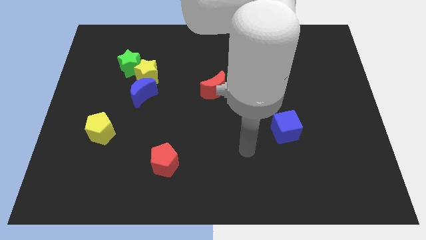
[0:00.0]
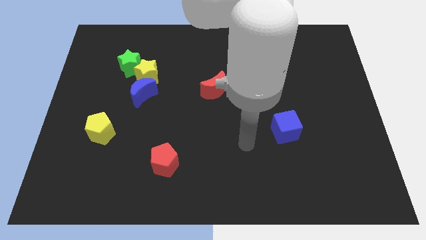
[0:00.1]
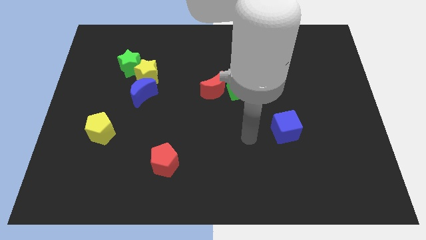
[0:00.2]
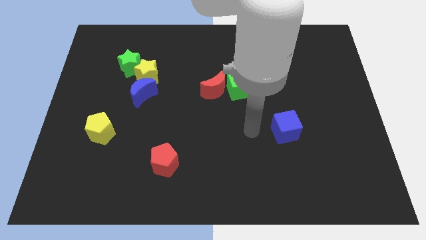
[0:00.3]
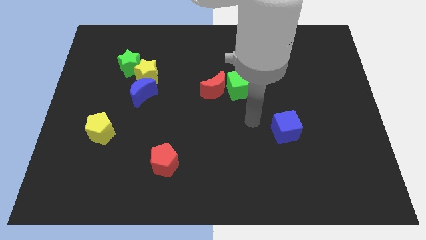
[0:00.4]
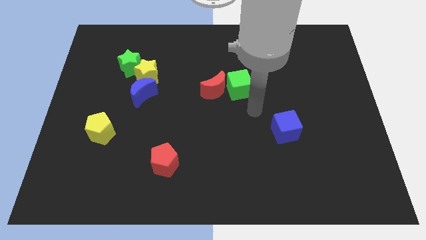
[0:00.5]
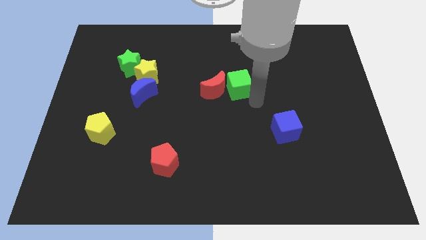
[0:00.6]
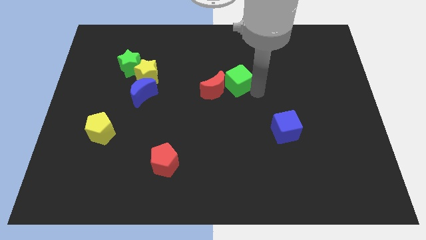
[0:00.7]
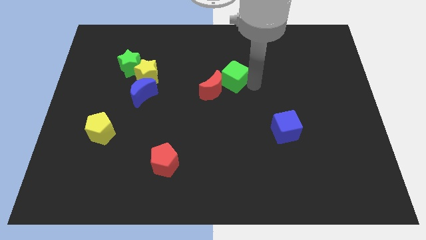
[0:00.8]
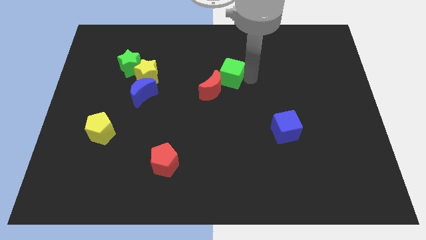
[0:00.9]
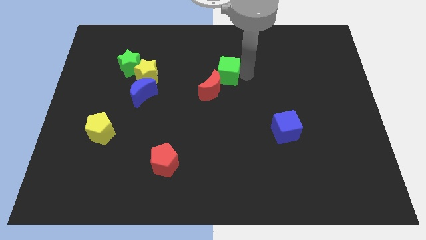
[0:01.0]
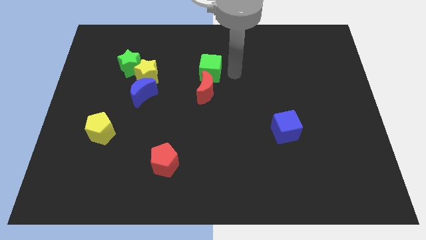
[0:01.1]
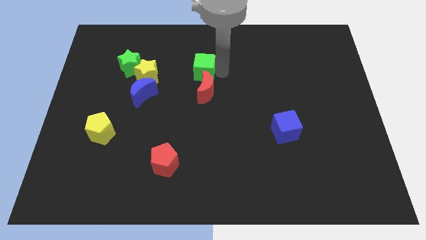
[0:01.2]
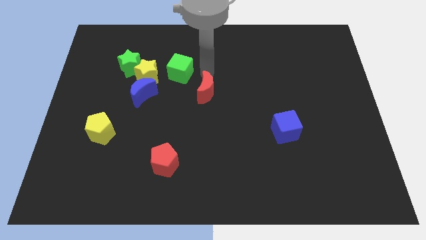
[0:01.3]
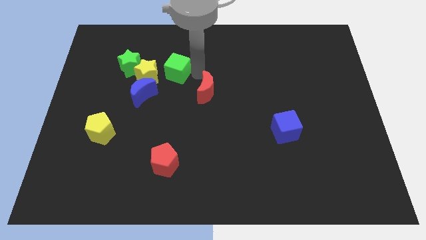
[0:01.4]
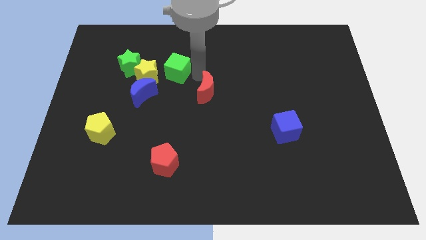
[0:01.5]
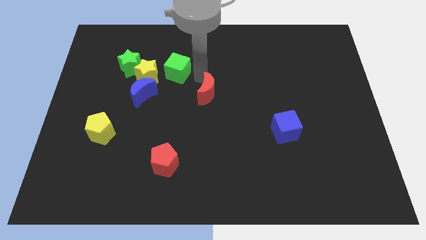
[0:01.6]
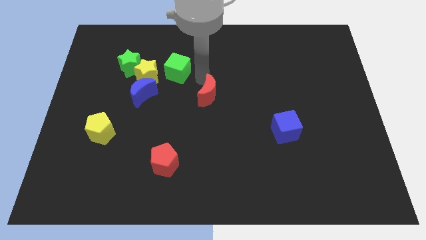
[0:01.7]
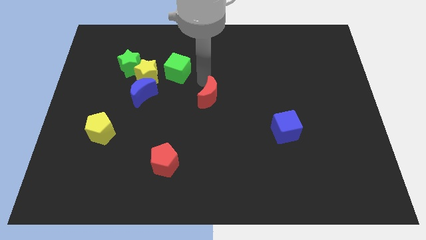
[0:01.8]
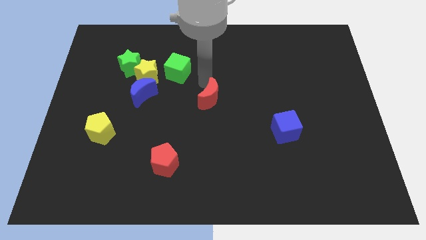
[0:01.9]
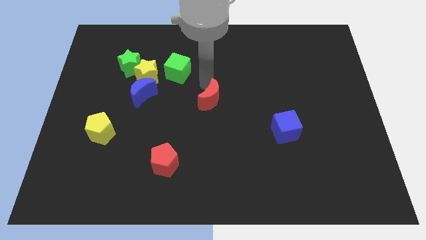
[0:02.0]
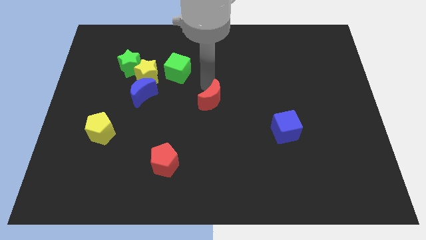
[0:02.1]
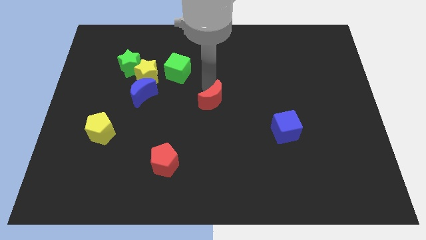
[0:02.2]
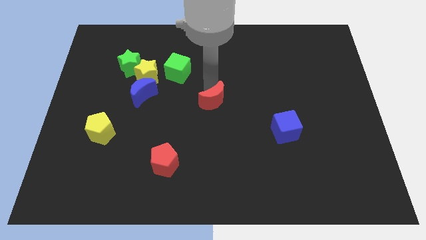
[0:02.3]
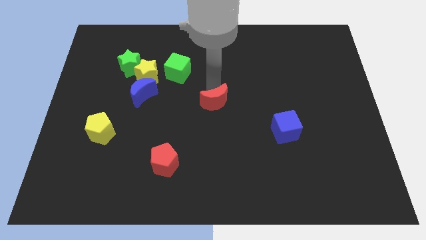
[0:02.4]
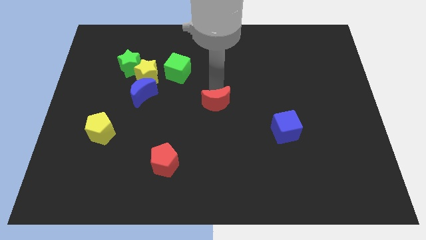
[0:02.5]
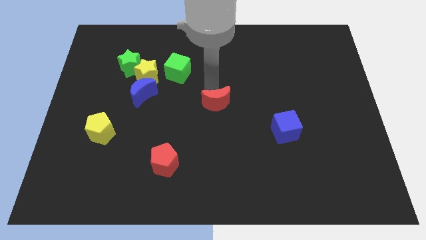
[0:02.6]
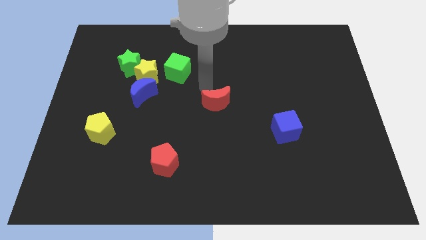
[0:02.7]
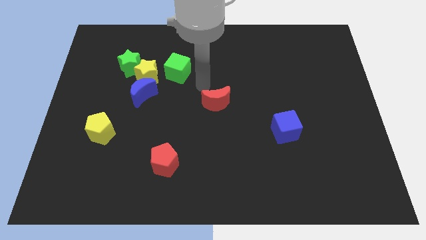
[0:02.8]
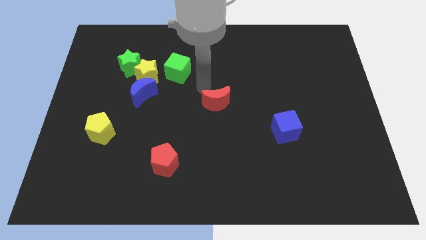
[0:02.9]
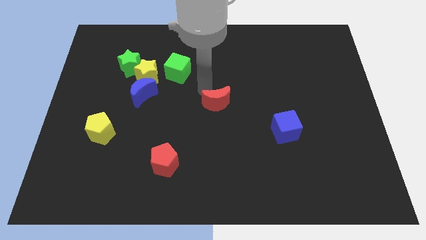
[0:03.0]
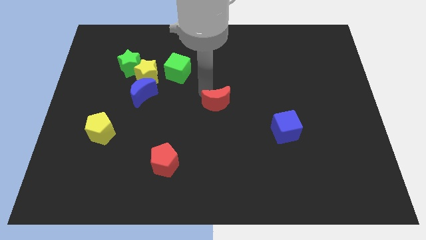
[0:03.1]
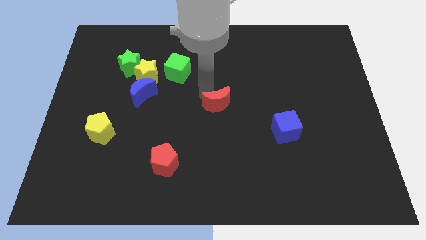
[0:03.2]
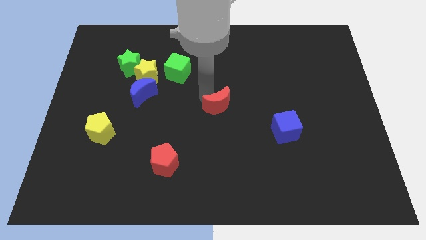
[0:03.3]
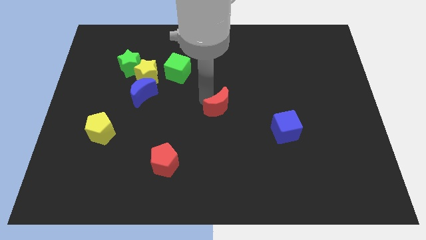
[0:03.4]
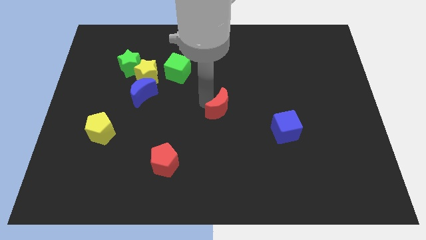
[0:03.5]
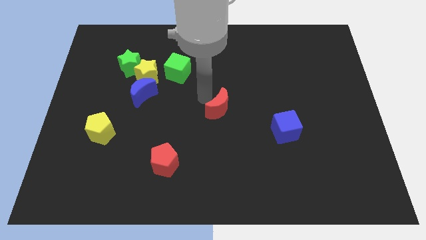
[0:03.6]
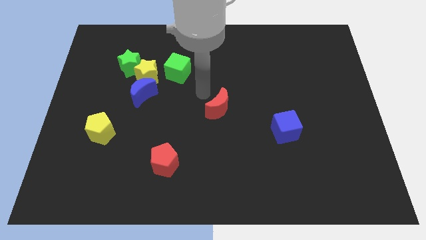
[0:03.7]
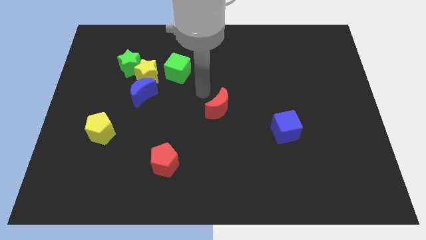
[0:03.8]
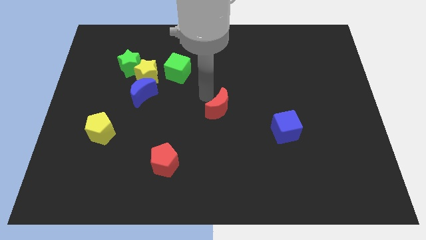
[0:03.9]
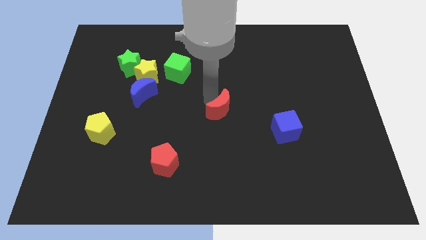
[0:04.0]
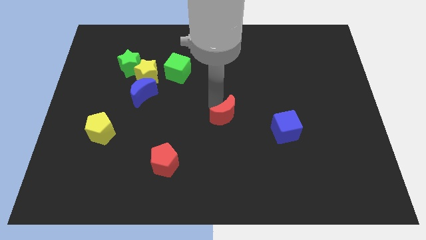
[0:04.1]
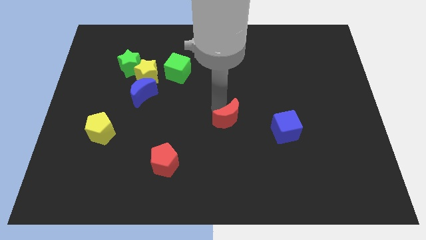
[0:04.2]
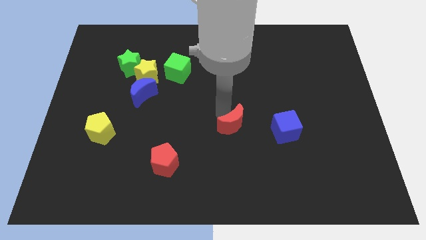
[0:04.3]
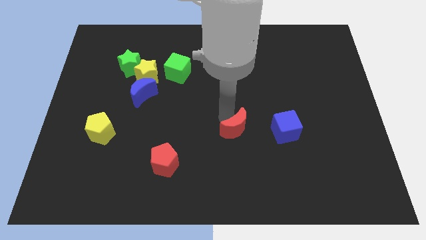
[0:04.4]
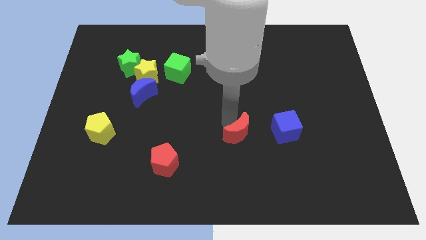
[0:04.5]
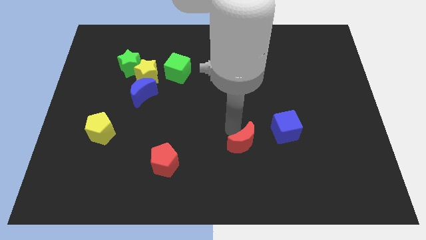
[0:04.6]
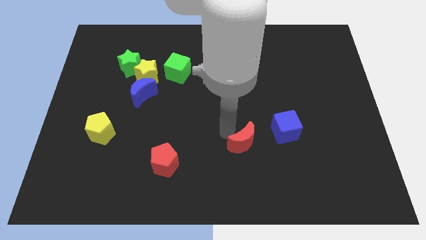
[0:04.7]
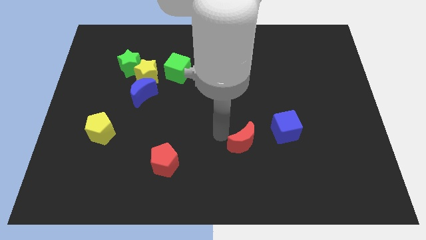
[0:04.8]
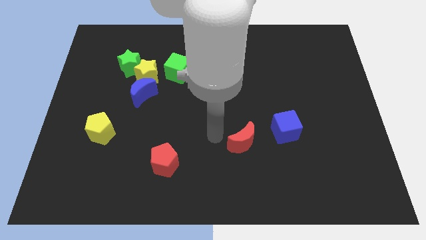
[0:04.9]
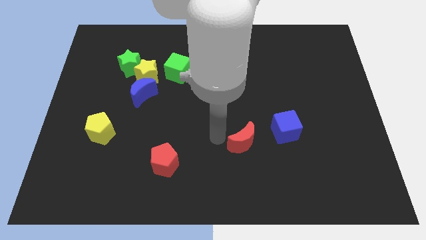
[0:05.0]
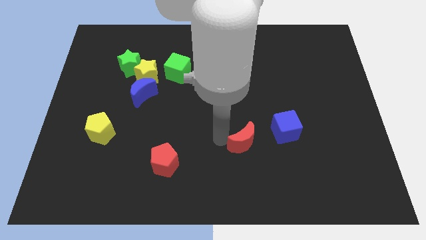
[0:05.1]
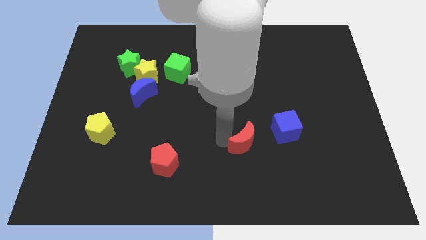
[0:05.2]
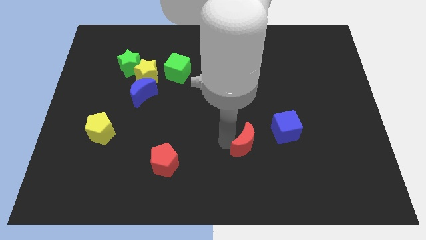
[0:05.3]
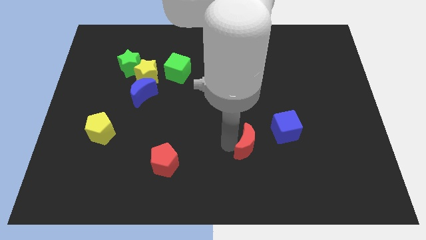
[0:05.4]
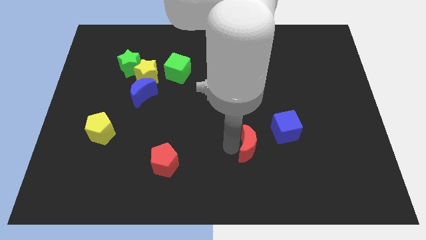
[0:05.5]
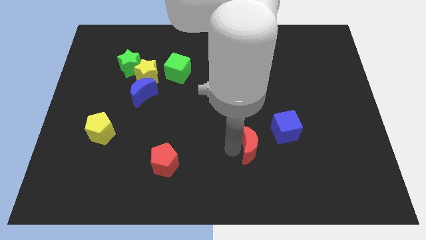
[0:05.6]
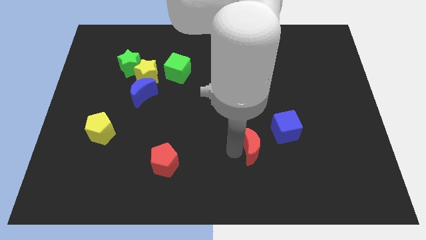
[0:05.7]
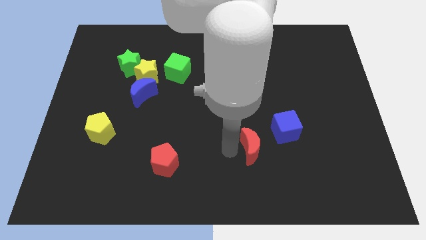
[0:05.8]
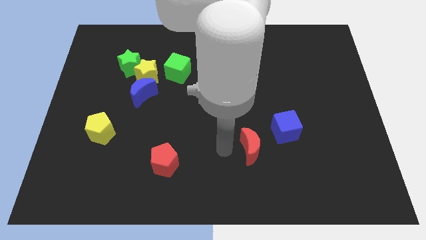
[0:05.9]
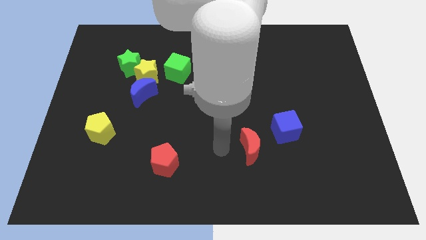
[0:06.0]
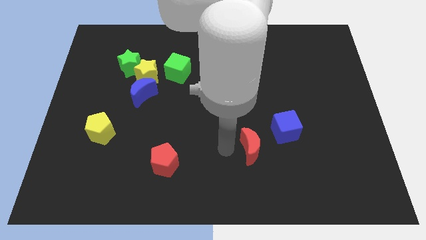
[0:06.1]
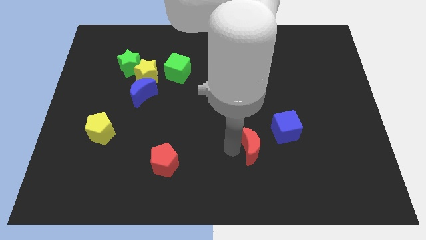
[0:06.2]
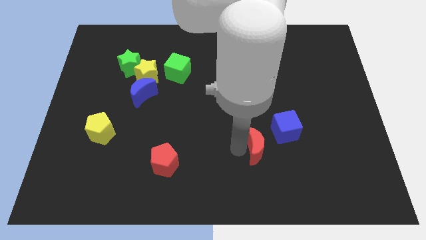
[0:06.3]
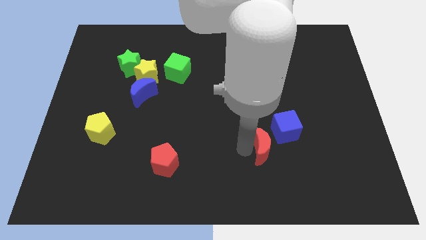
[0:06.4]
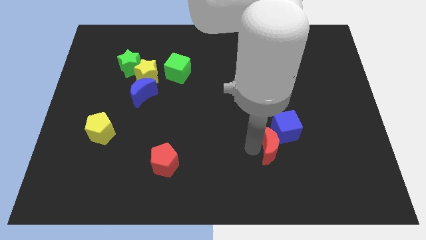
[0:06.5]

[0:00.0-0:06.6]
slide the red moon downwards and to the right

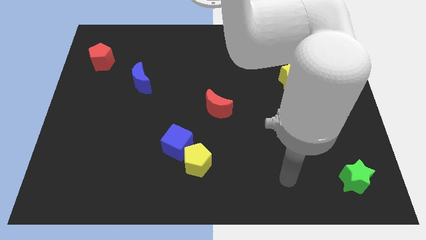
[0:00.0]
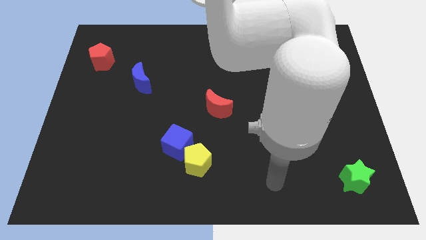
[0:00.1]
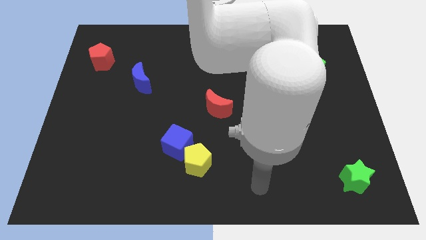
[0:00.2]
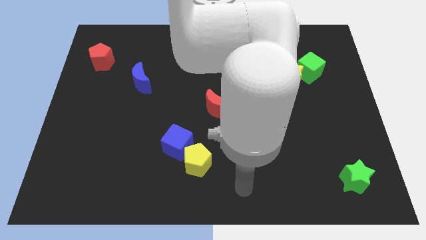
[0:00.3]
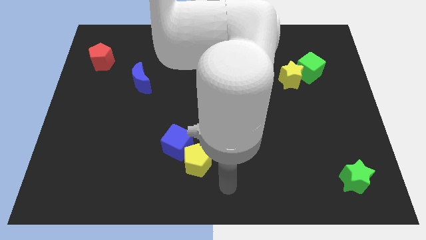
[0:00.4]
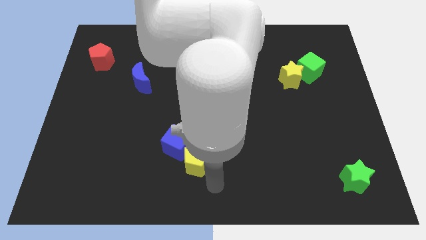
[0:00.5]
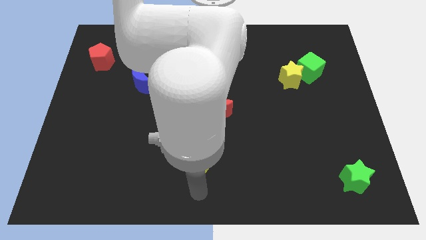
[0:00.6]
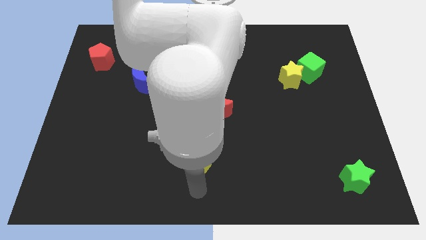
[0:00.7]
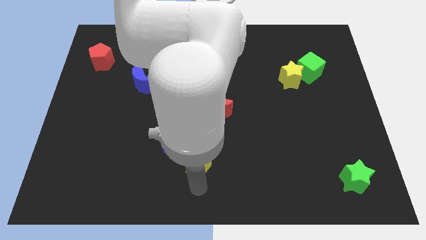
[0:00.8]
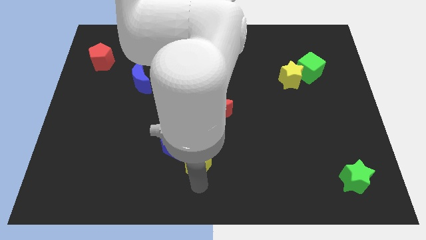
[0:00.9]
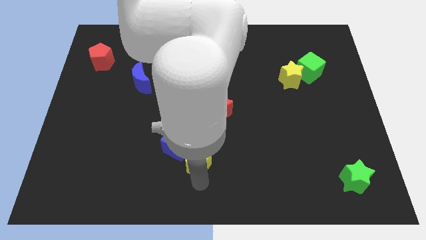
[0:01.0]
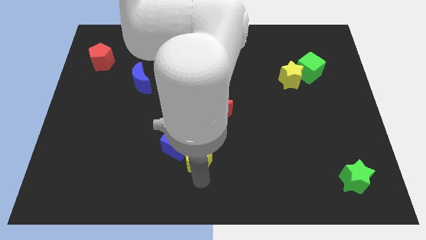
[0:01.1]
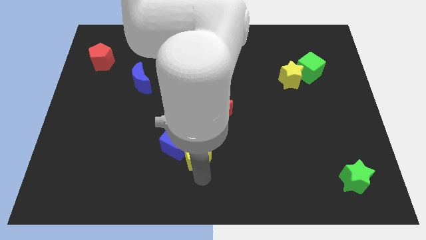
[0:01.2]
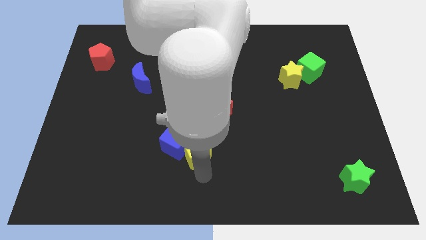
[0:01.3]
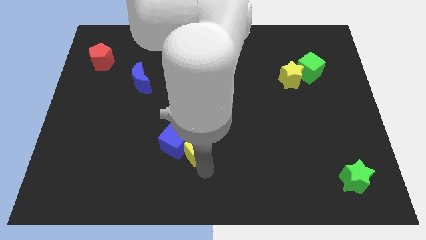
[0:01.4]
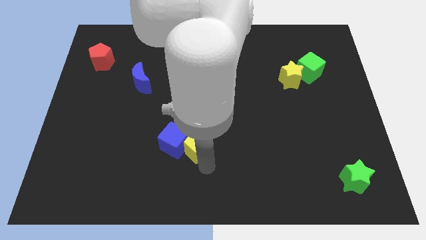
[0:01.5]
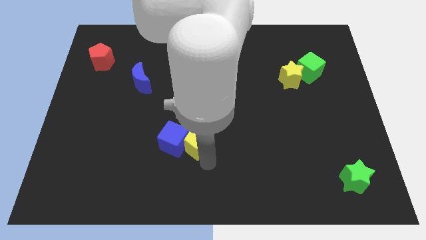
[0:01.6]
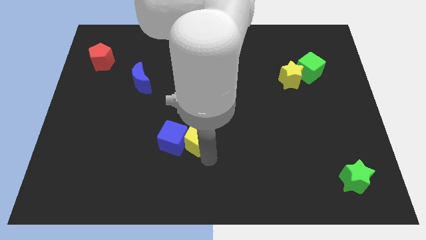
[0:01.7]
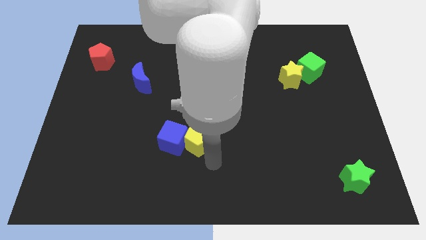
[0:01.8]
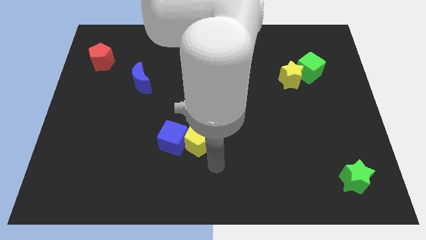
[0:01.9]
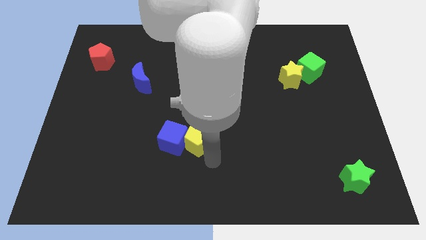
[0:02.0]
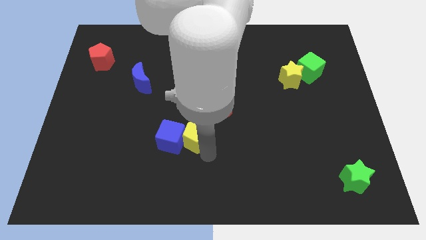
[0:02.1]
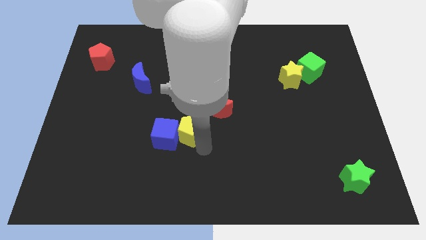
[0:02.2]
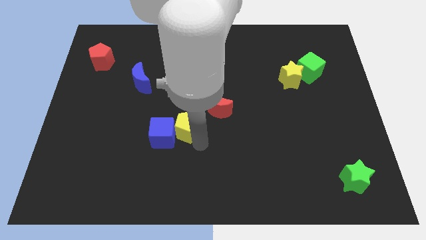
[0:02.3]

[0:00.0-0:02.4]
slide the yellow pentagon a little up and then to the left
